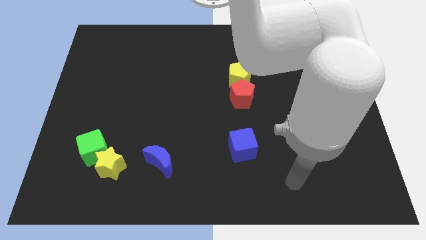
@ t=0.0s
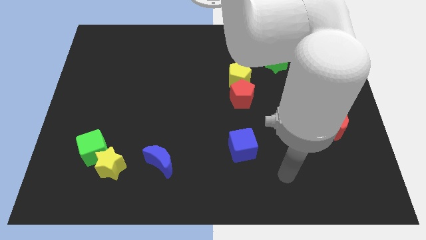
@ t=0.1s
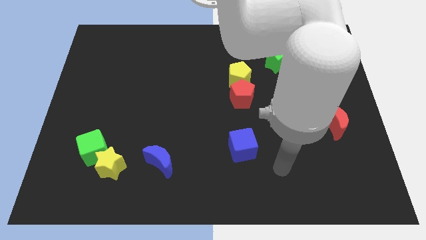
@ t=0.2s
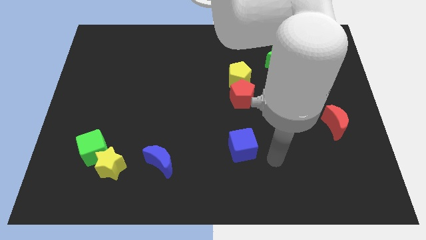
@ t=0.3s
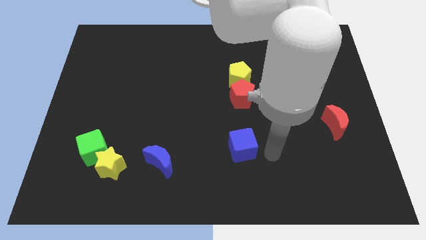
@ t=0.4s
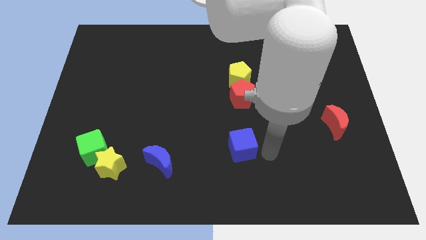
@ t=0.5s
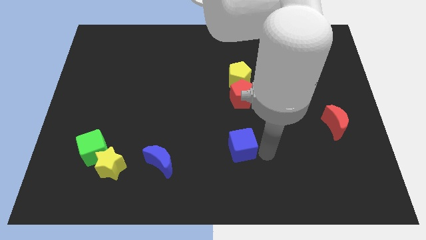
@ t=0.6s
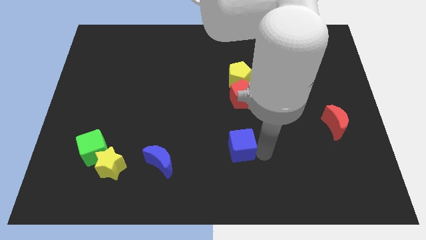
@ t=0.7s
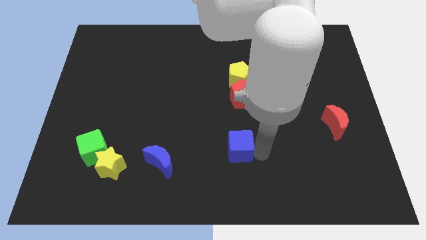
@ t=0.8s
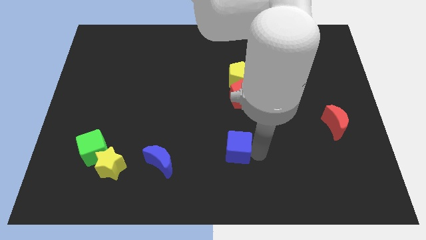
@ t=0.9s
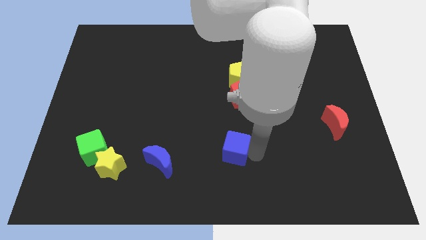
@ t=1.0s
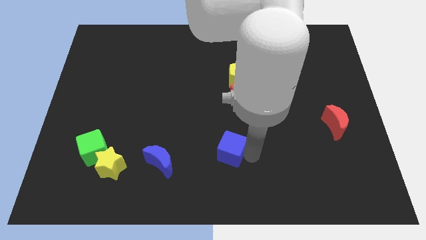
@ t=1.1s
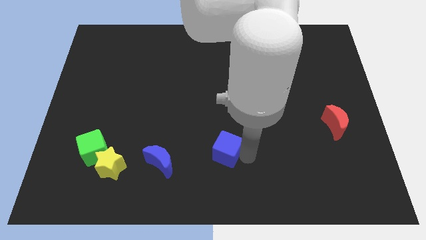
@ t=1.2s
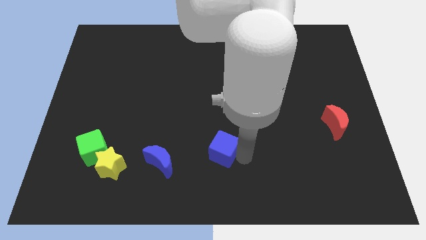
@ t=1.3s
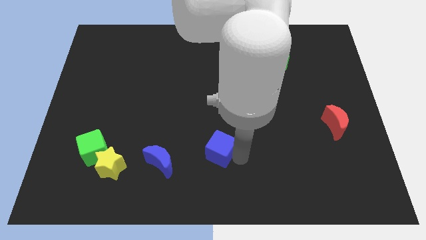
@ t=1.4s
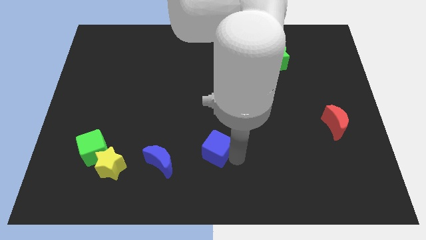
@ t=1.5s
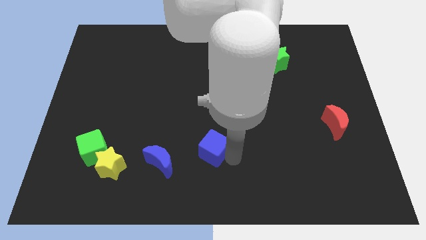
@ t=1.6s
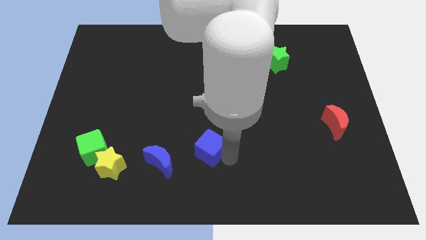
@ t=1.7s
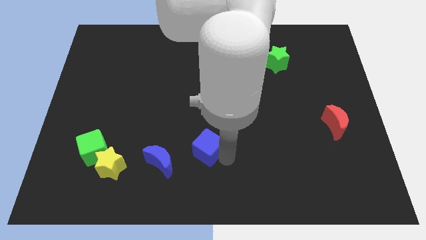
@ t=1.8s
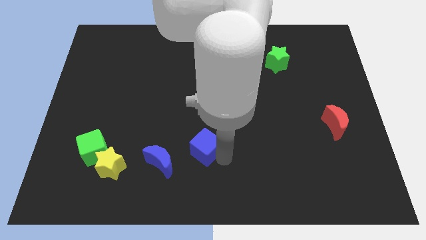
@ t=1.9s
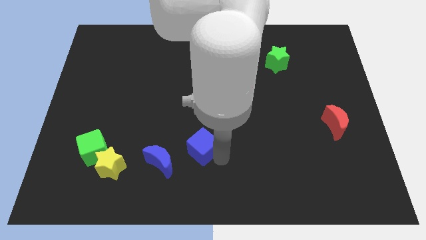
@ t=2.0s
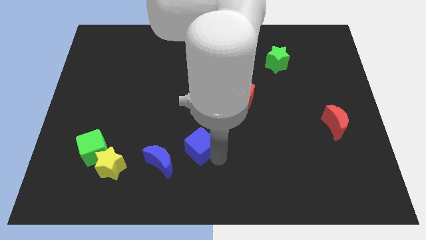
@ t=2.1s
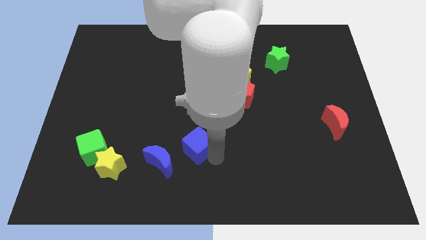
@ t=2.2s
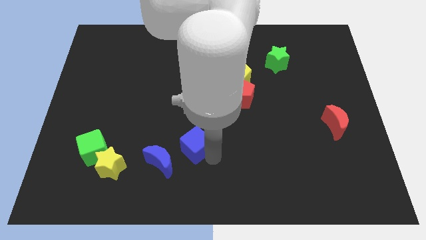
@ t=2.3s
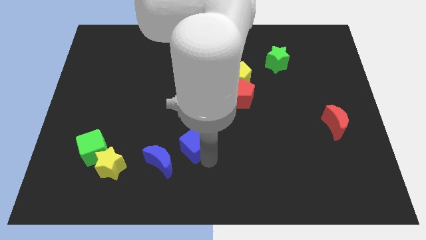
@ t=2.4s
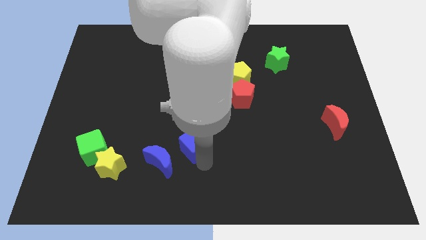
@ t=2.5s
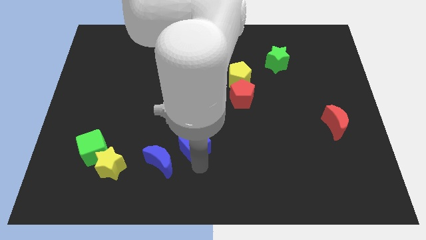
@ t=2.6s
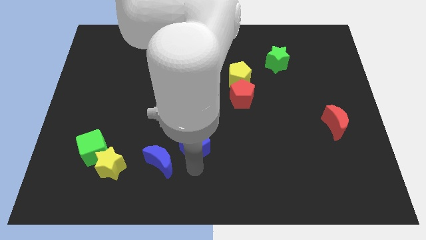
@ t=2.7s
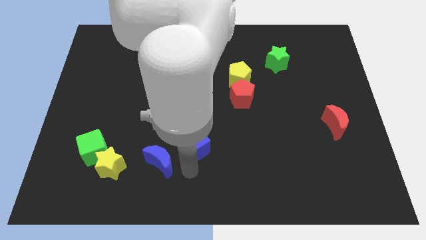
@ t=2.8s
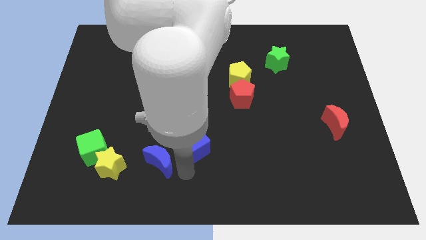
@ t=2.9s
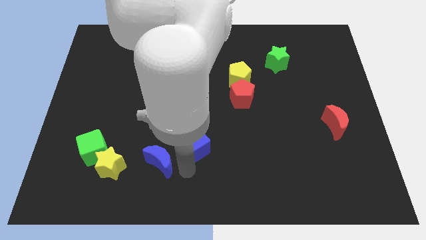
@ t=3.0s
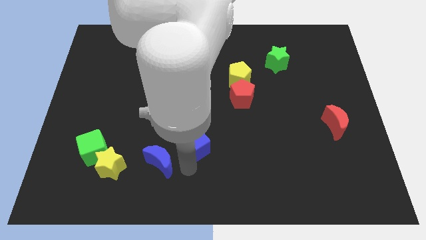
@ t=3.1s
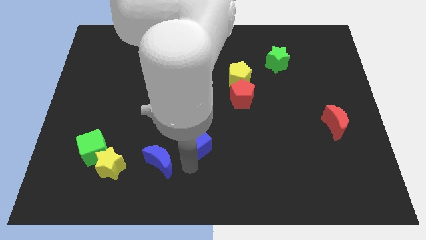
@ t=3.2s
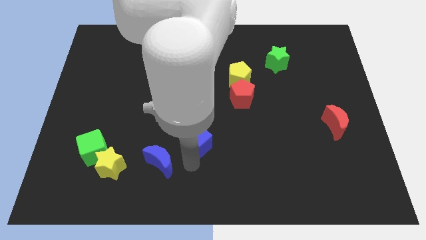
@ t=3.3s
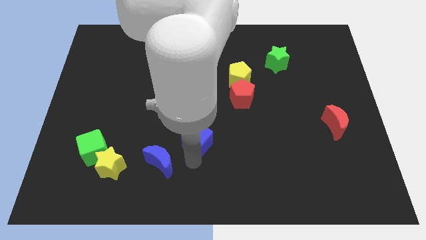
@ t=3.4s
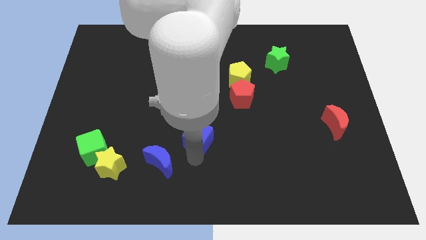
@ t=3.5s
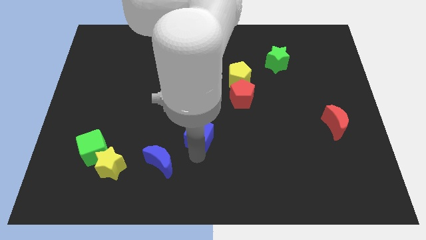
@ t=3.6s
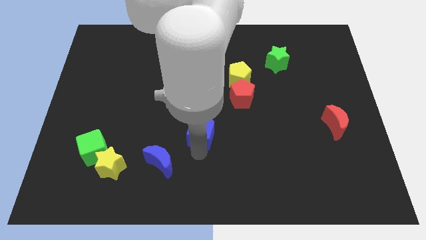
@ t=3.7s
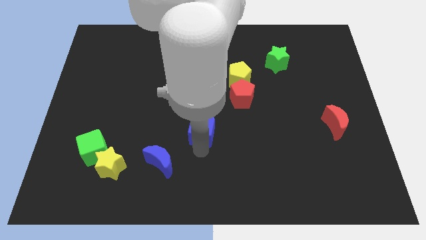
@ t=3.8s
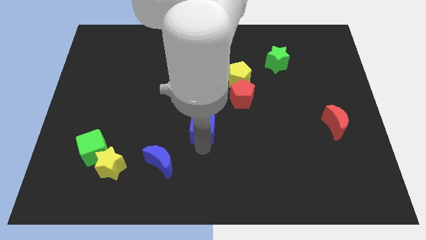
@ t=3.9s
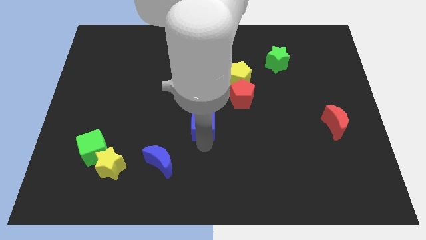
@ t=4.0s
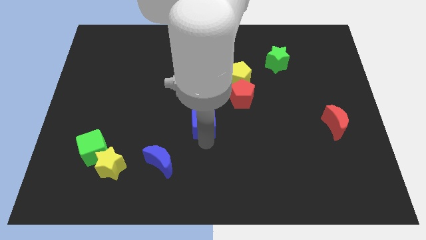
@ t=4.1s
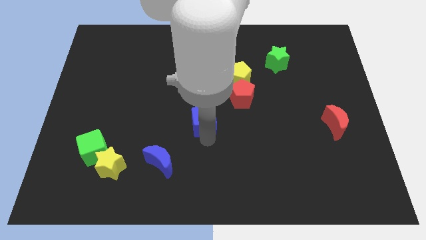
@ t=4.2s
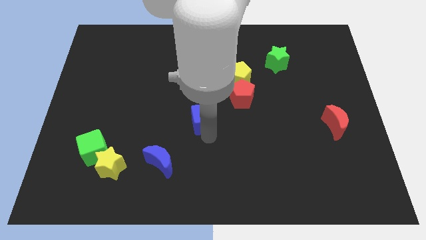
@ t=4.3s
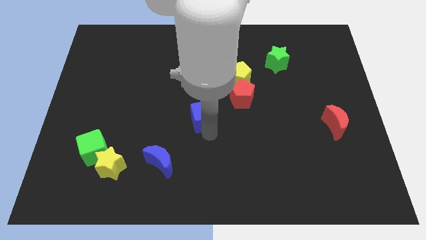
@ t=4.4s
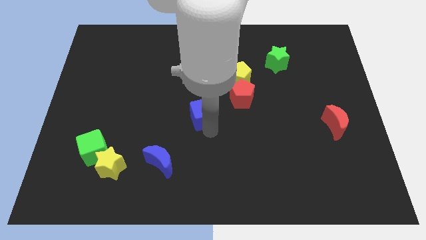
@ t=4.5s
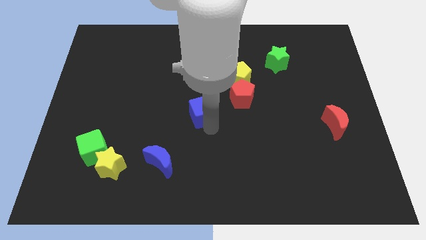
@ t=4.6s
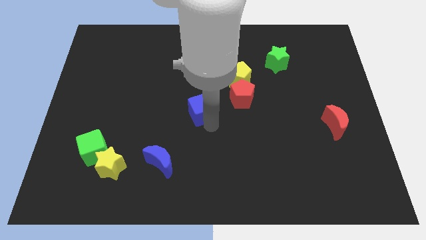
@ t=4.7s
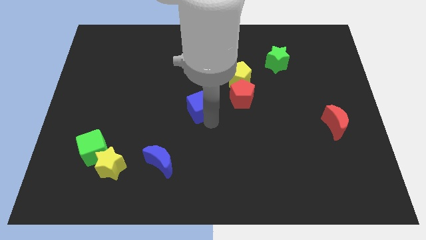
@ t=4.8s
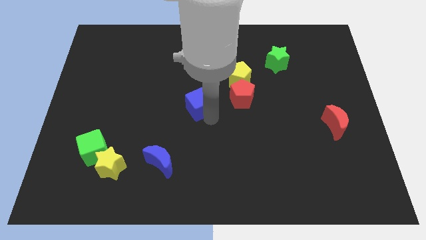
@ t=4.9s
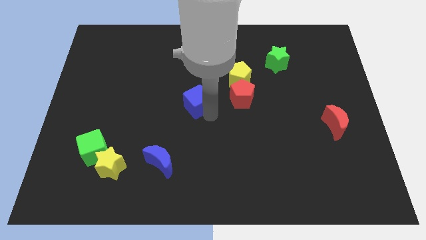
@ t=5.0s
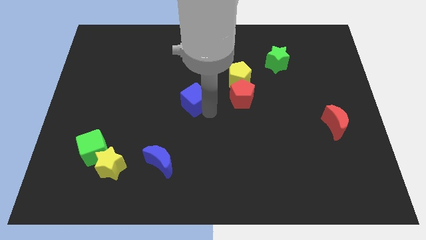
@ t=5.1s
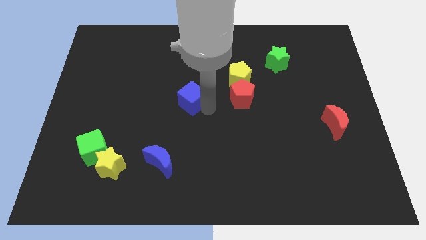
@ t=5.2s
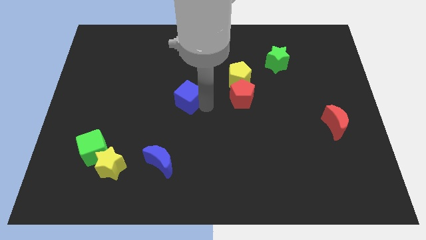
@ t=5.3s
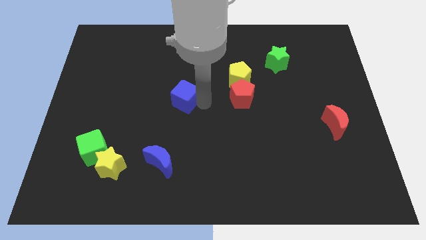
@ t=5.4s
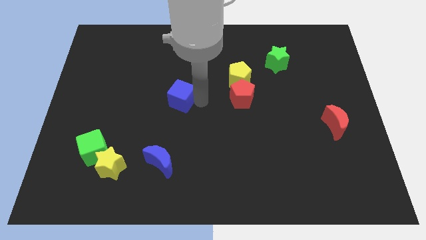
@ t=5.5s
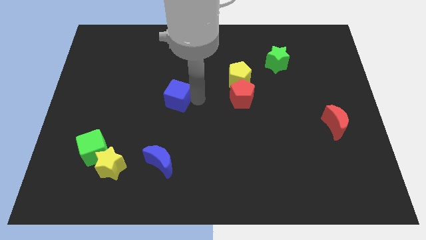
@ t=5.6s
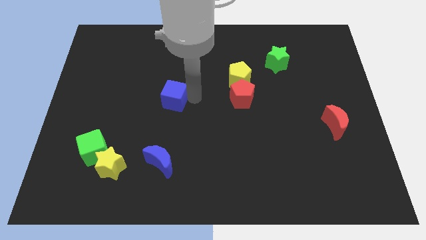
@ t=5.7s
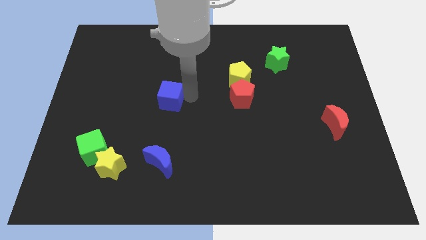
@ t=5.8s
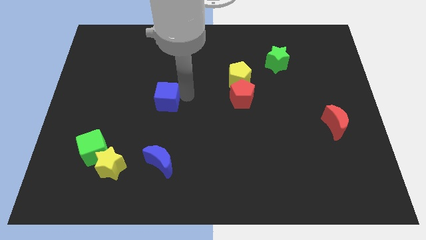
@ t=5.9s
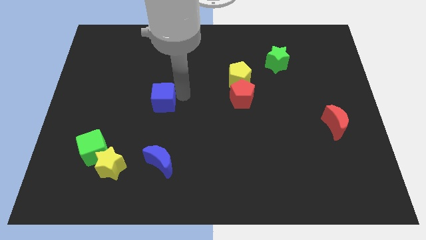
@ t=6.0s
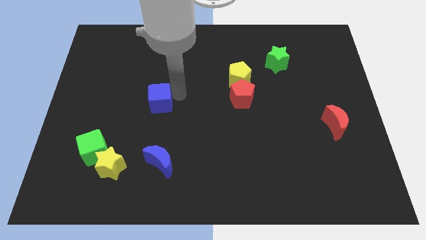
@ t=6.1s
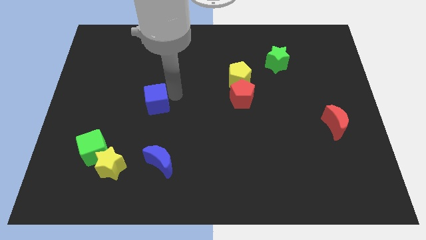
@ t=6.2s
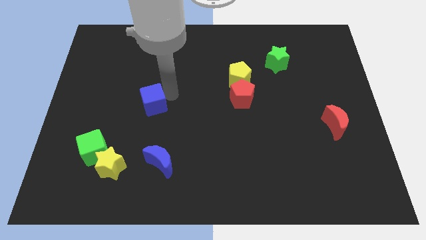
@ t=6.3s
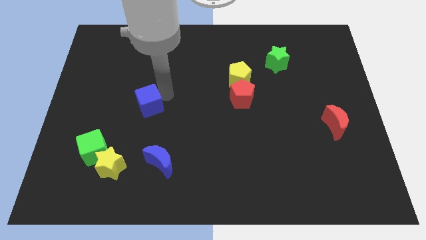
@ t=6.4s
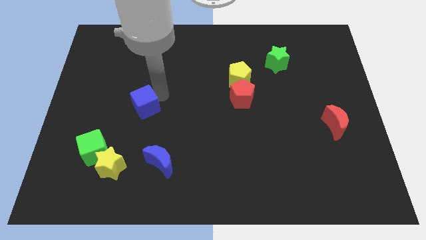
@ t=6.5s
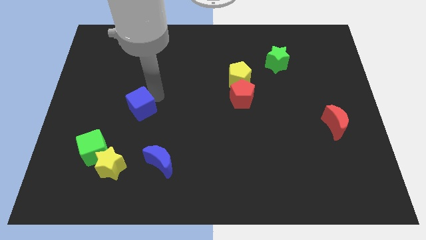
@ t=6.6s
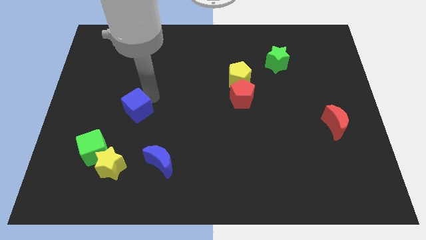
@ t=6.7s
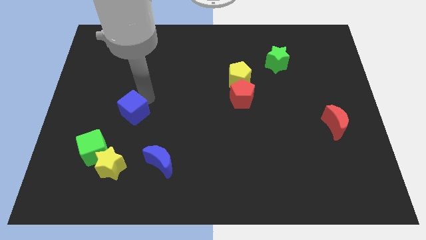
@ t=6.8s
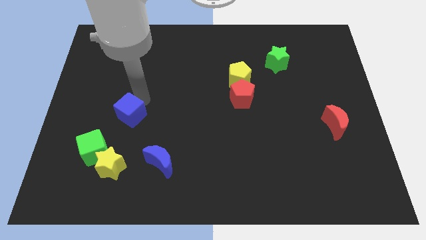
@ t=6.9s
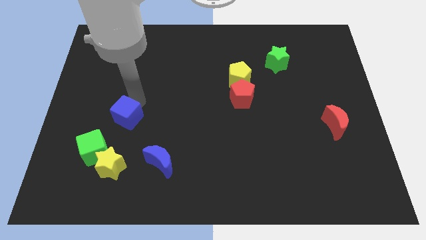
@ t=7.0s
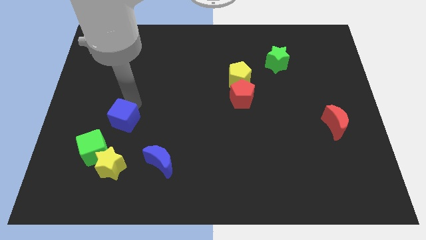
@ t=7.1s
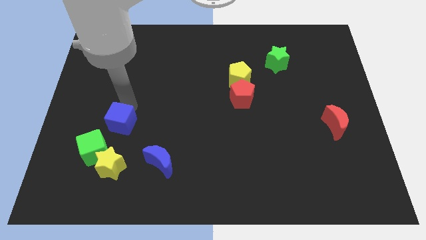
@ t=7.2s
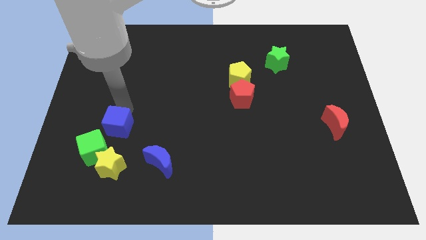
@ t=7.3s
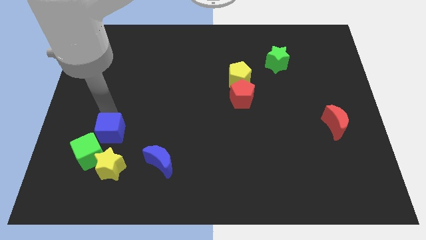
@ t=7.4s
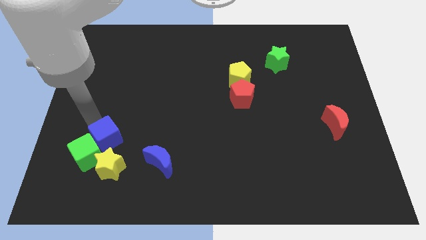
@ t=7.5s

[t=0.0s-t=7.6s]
move the blue cube close to the green cube

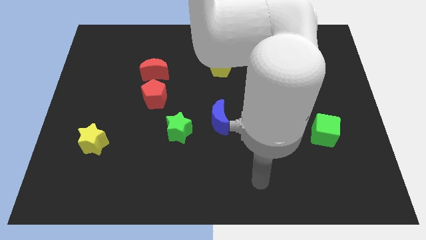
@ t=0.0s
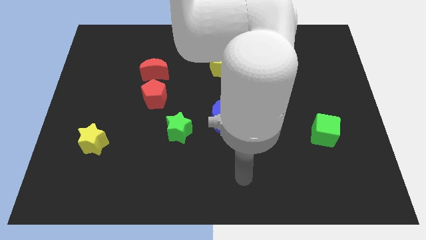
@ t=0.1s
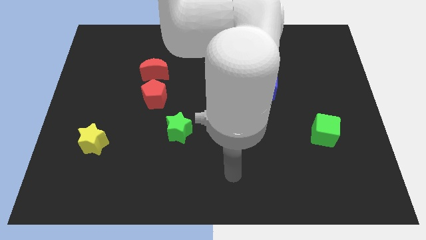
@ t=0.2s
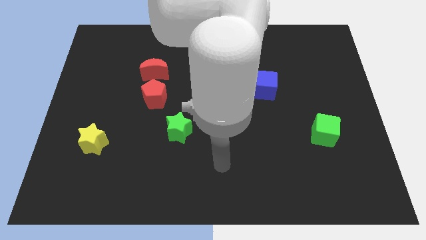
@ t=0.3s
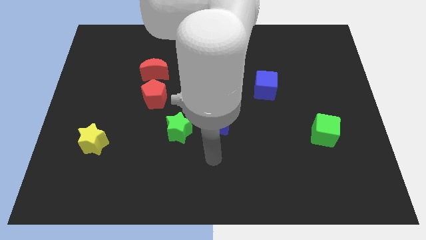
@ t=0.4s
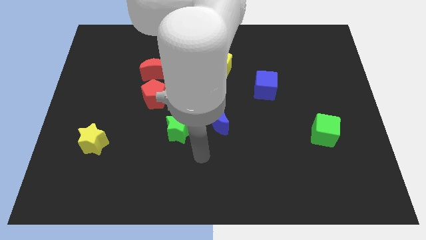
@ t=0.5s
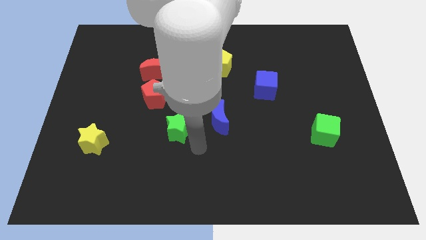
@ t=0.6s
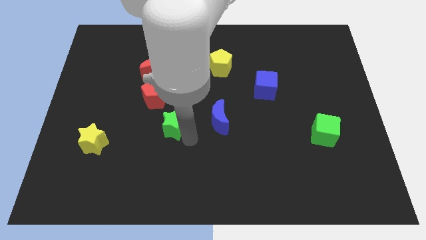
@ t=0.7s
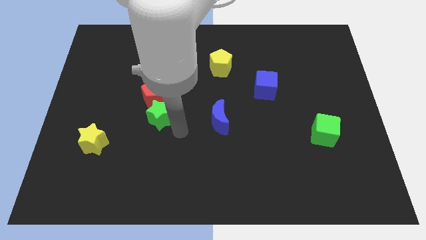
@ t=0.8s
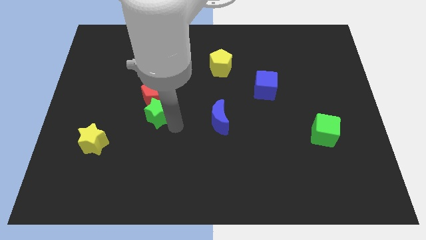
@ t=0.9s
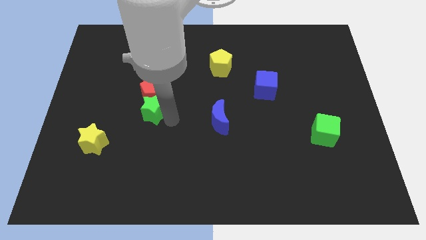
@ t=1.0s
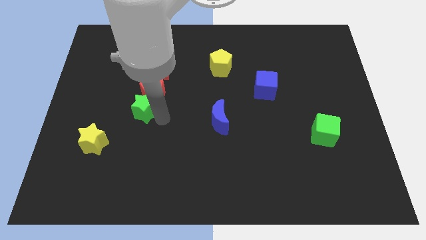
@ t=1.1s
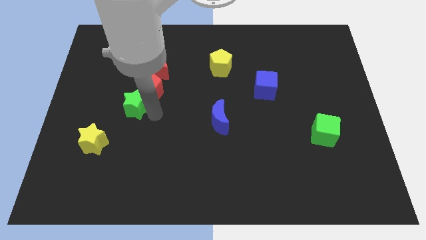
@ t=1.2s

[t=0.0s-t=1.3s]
put the red pentagon to the red moon
